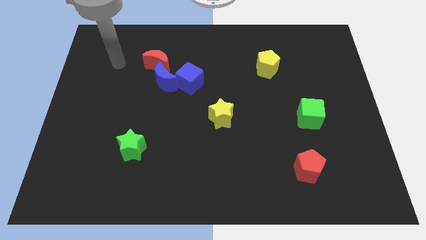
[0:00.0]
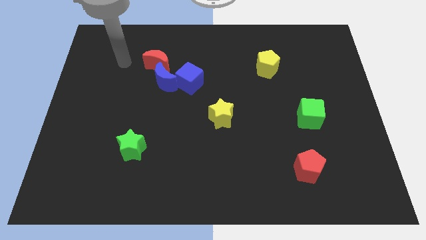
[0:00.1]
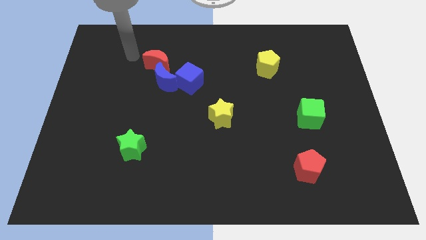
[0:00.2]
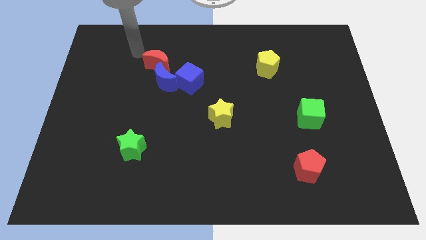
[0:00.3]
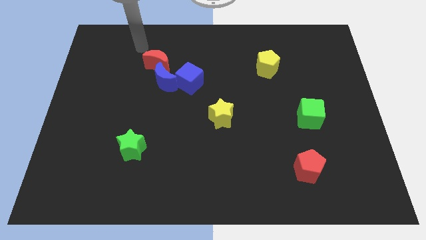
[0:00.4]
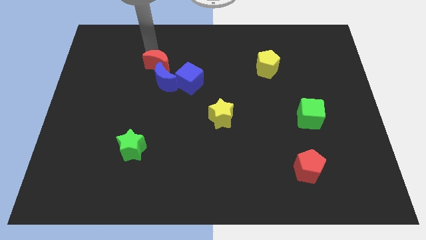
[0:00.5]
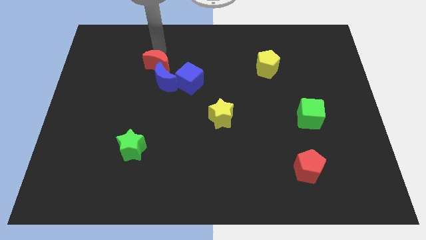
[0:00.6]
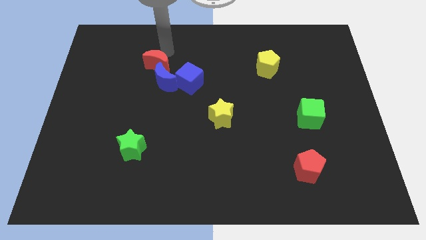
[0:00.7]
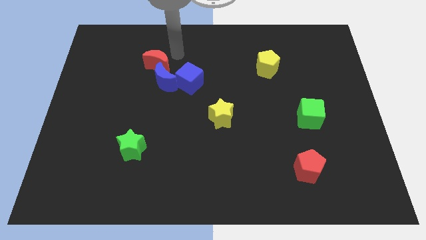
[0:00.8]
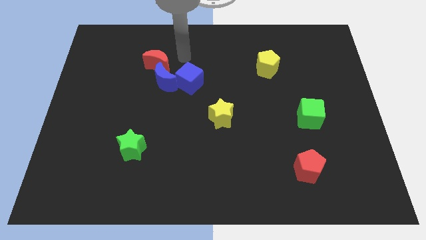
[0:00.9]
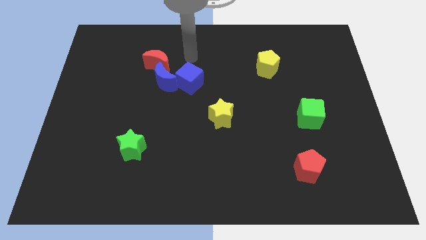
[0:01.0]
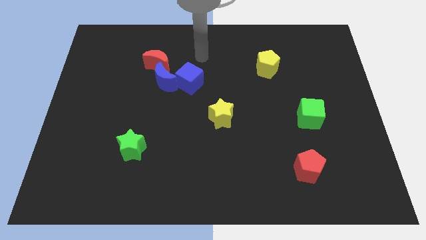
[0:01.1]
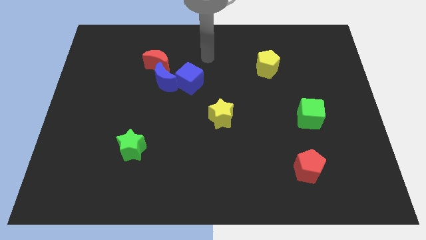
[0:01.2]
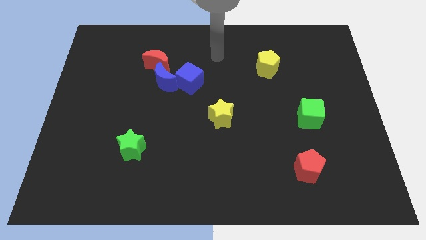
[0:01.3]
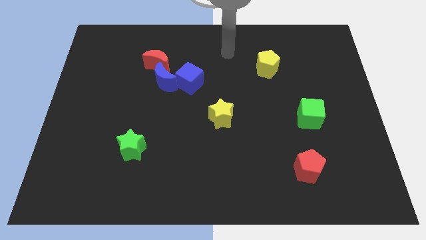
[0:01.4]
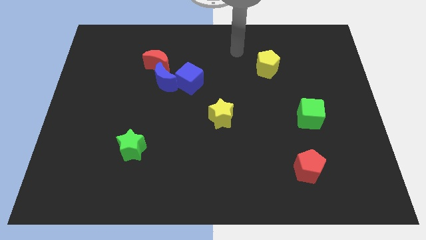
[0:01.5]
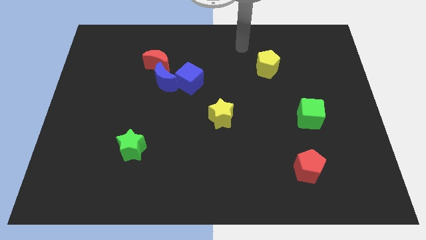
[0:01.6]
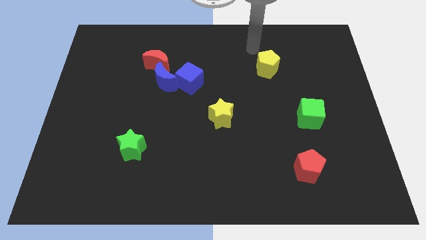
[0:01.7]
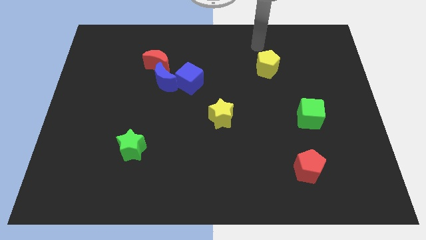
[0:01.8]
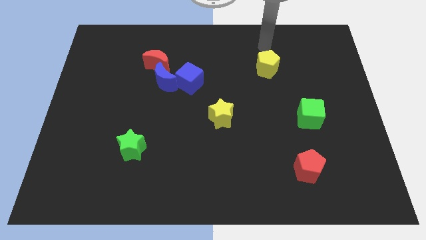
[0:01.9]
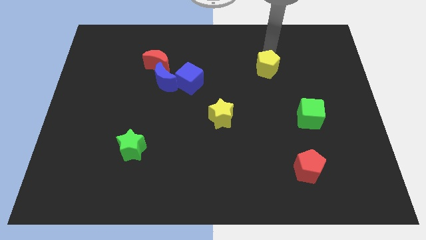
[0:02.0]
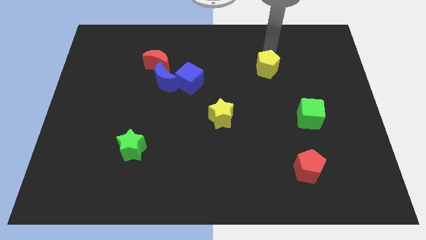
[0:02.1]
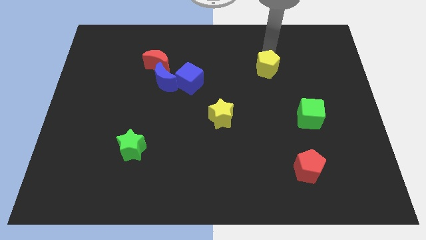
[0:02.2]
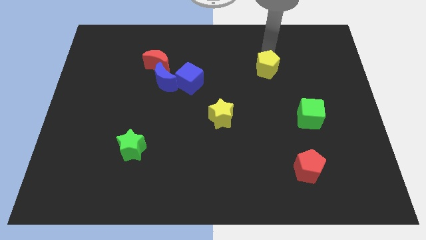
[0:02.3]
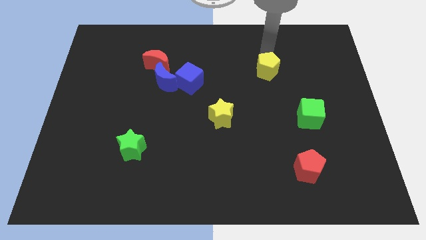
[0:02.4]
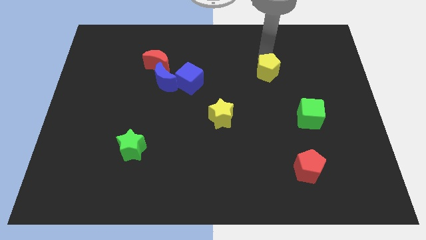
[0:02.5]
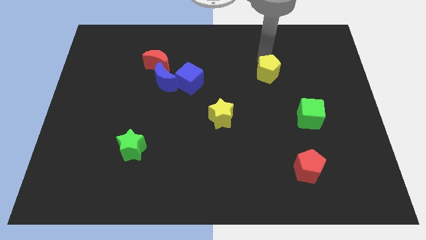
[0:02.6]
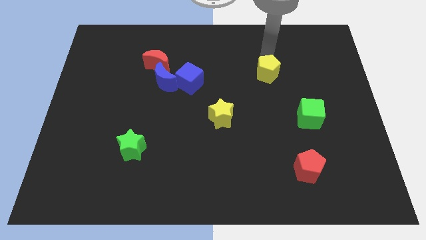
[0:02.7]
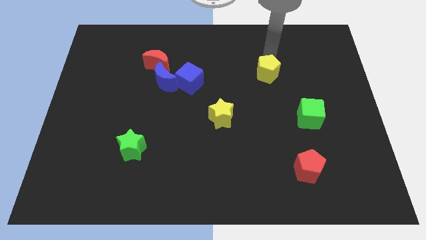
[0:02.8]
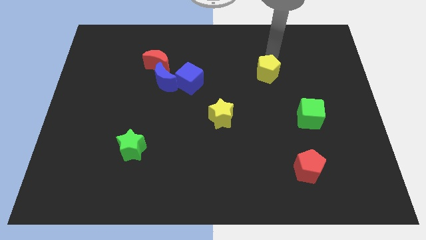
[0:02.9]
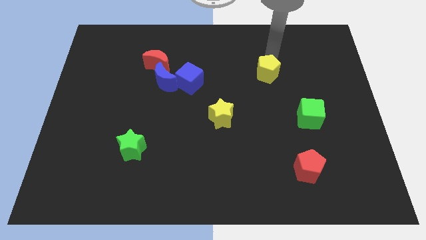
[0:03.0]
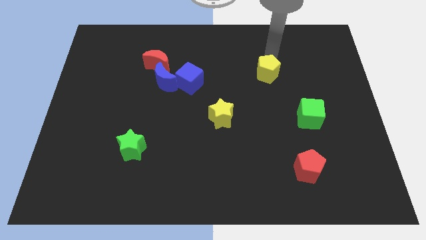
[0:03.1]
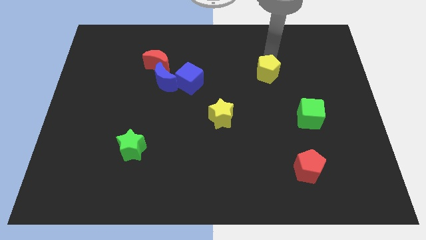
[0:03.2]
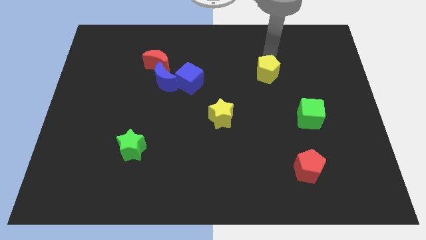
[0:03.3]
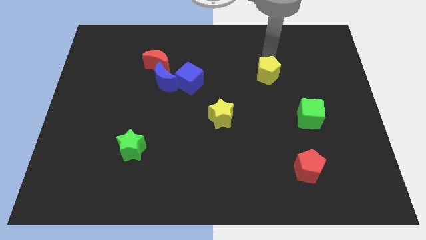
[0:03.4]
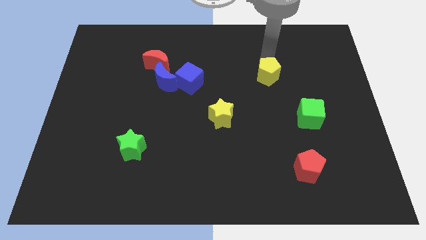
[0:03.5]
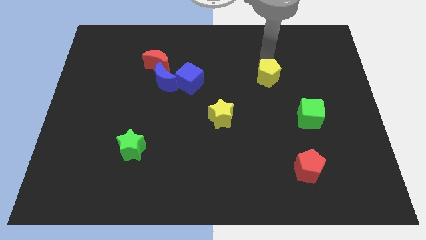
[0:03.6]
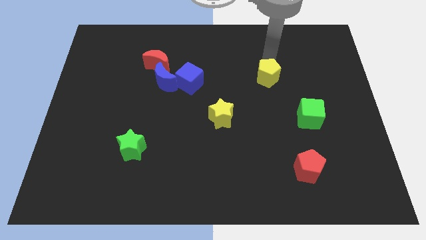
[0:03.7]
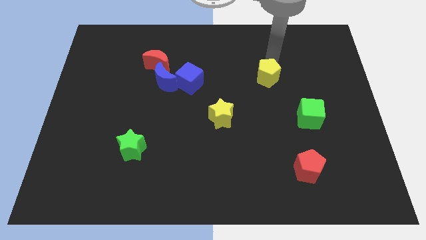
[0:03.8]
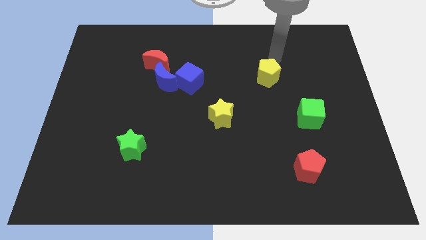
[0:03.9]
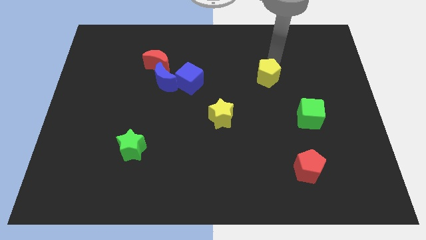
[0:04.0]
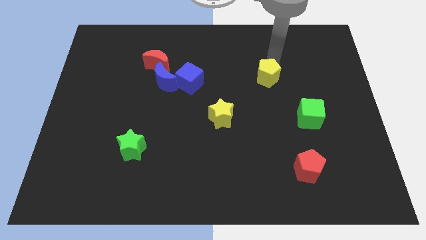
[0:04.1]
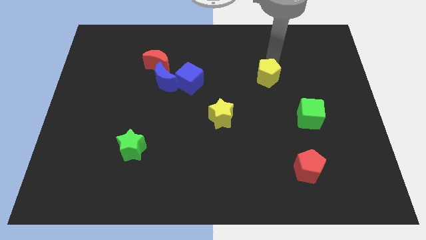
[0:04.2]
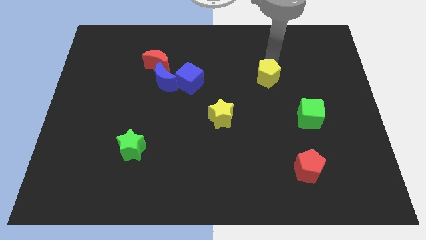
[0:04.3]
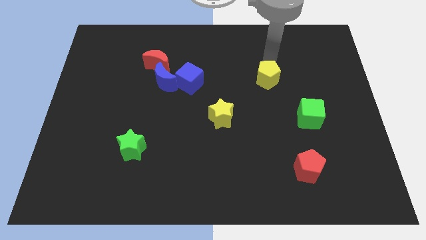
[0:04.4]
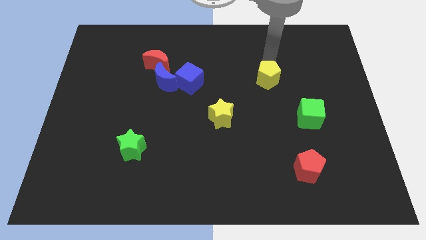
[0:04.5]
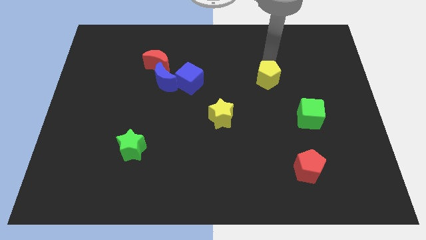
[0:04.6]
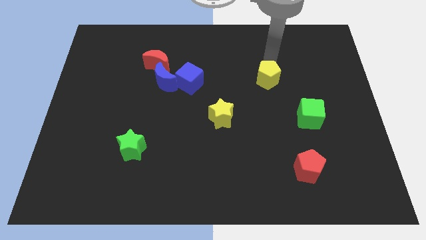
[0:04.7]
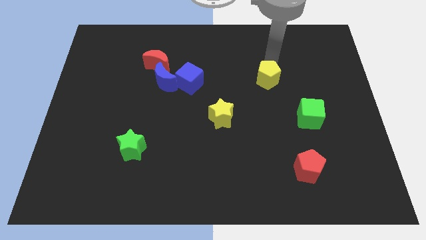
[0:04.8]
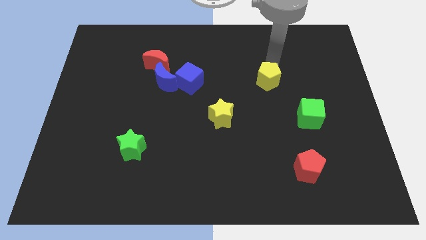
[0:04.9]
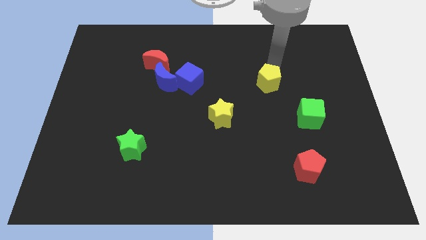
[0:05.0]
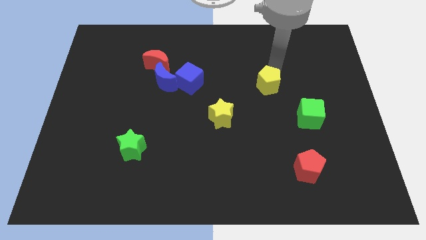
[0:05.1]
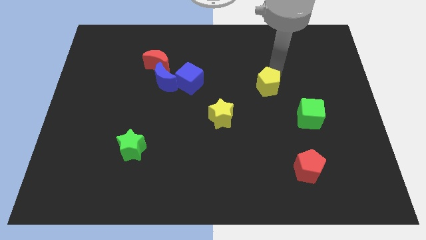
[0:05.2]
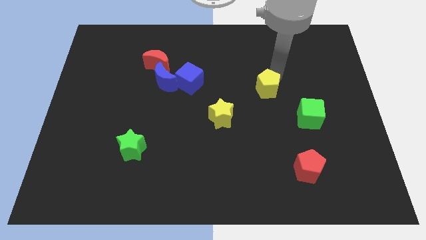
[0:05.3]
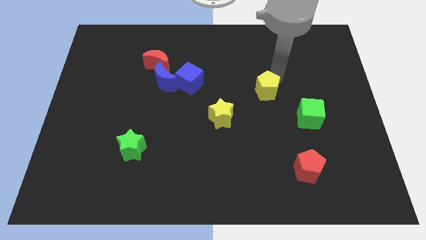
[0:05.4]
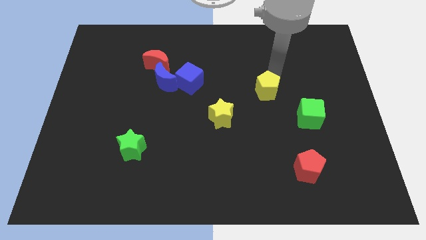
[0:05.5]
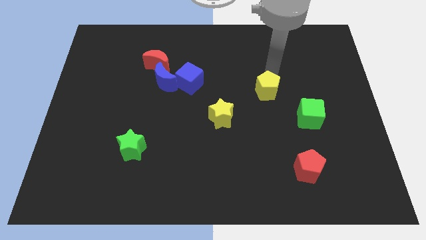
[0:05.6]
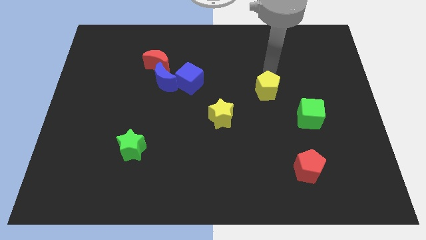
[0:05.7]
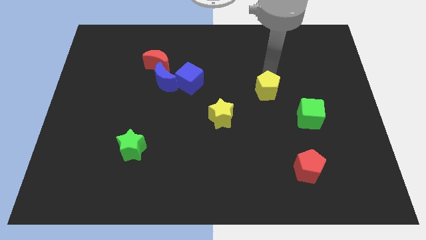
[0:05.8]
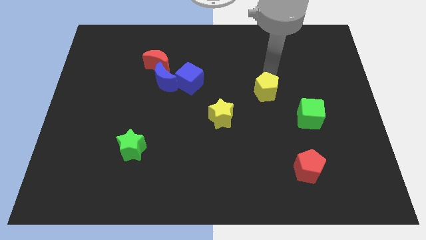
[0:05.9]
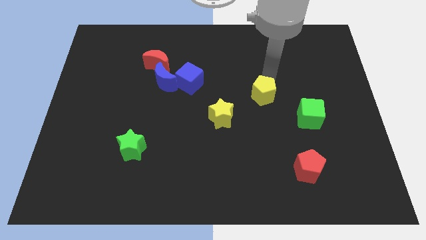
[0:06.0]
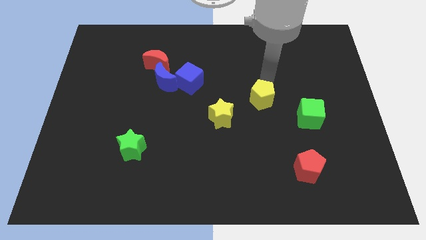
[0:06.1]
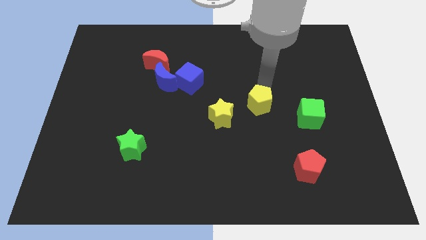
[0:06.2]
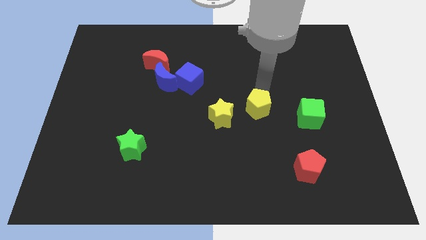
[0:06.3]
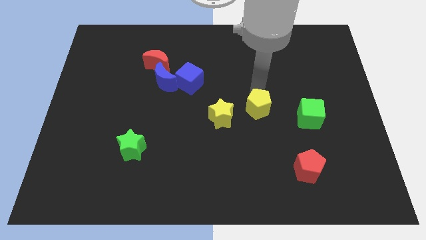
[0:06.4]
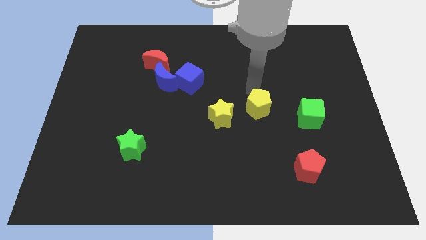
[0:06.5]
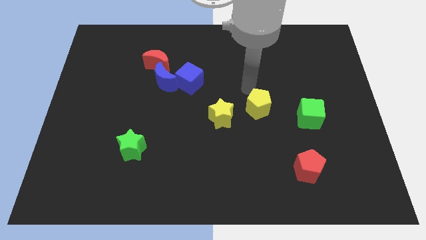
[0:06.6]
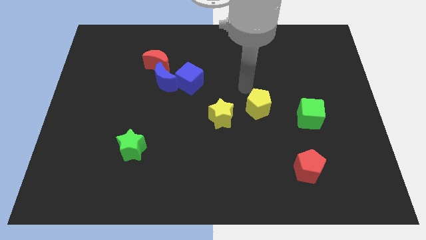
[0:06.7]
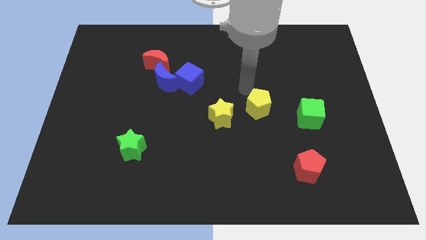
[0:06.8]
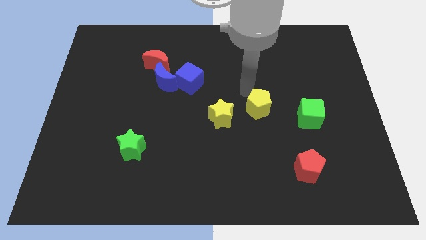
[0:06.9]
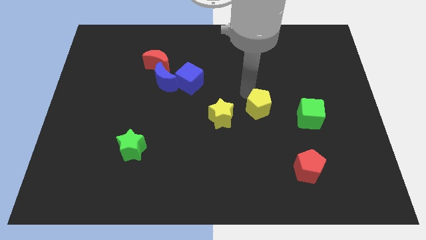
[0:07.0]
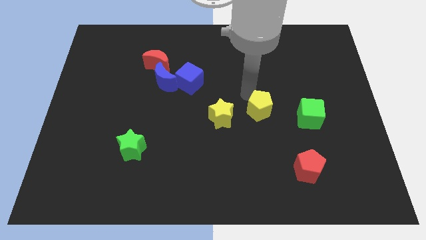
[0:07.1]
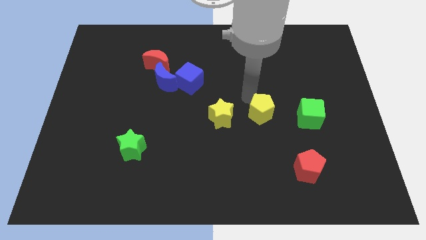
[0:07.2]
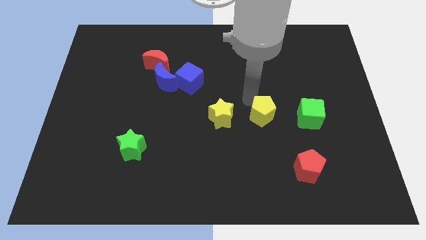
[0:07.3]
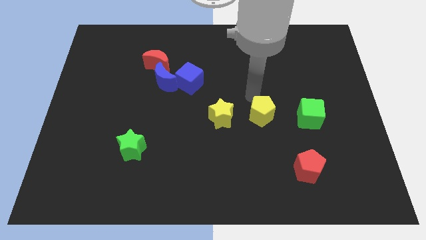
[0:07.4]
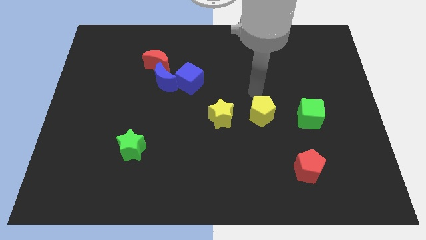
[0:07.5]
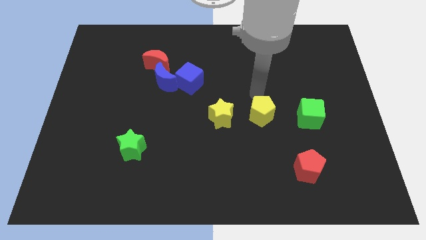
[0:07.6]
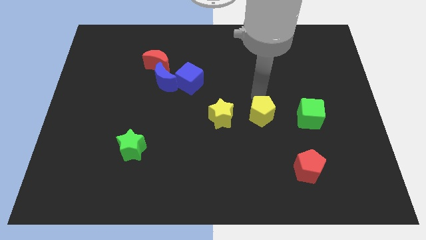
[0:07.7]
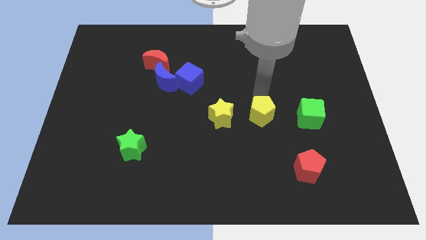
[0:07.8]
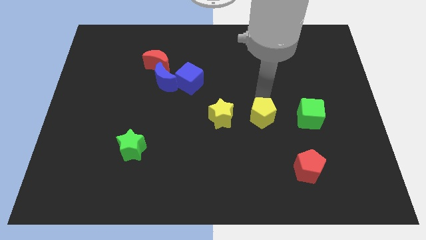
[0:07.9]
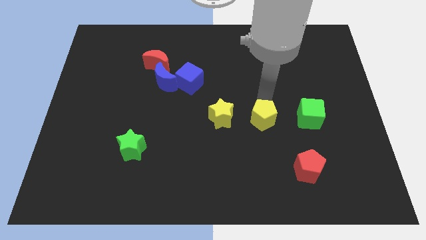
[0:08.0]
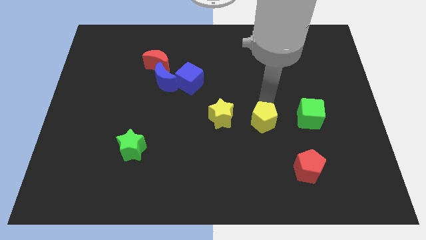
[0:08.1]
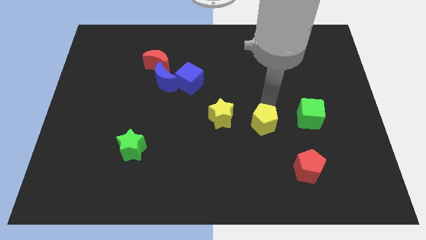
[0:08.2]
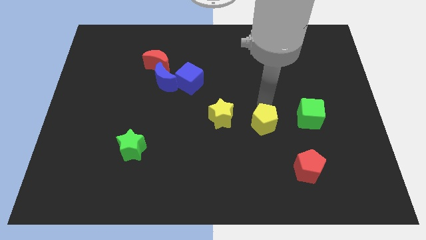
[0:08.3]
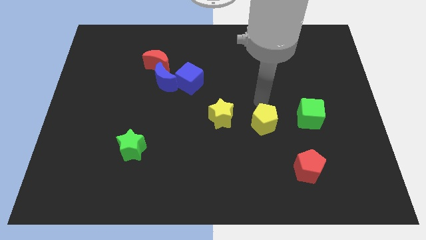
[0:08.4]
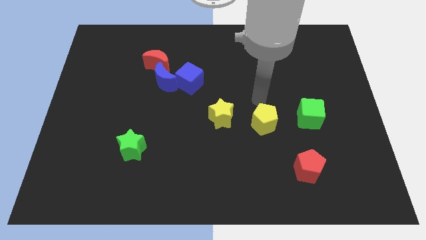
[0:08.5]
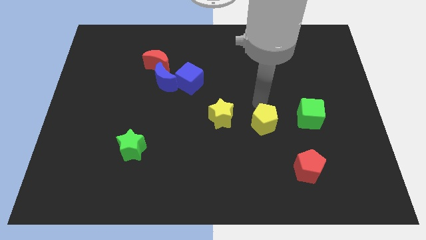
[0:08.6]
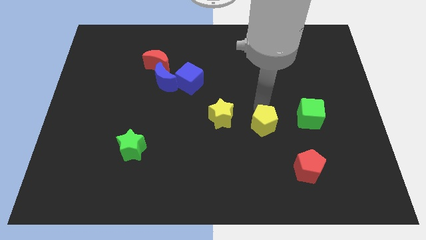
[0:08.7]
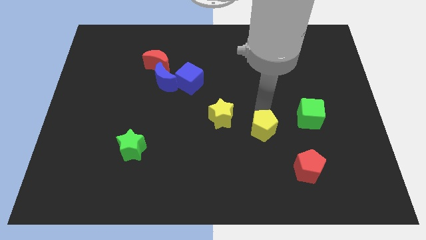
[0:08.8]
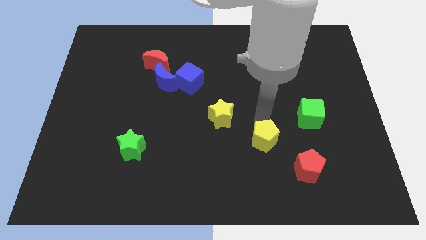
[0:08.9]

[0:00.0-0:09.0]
move the yellow pentagon downwards
